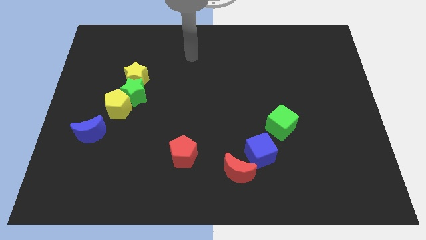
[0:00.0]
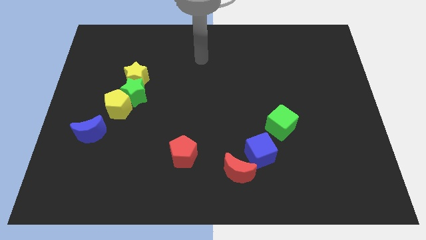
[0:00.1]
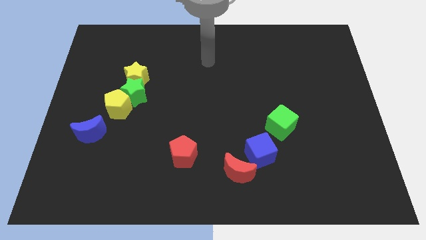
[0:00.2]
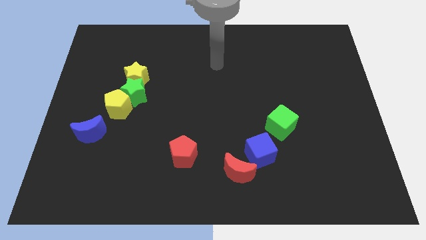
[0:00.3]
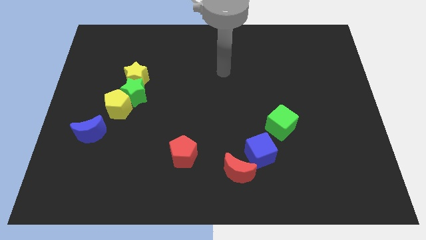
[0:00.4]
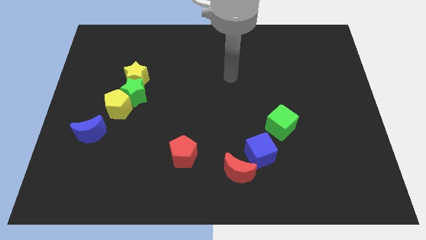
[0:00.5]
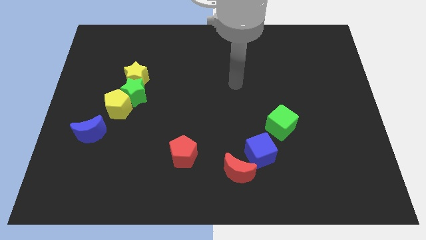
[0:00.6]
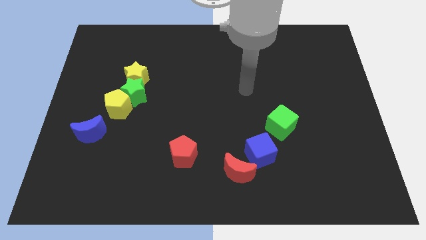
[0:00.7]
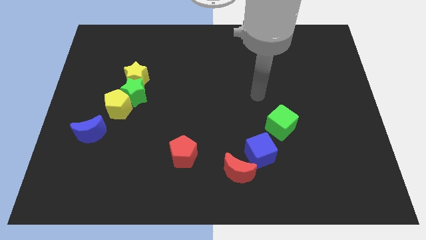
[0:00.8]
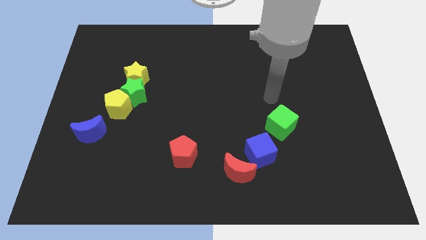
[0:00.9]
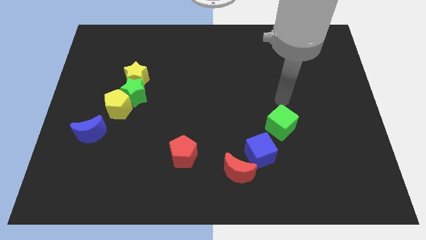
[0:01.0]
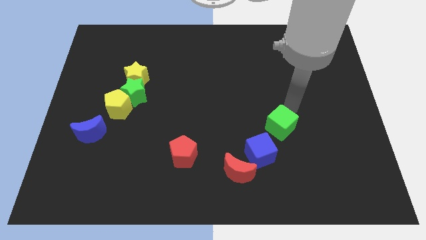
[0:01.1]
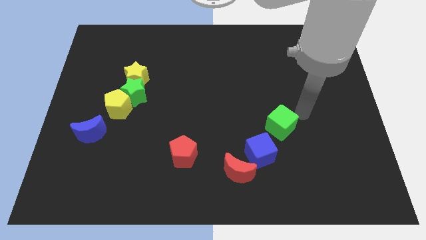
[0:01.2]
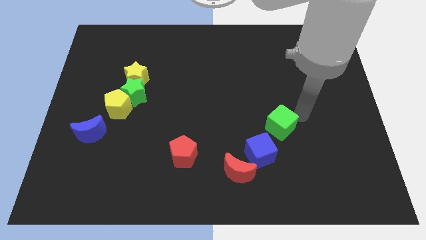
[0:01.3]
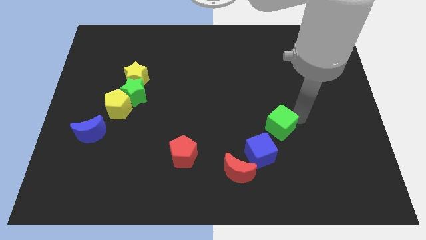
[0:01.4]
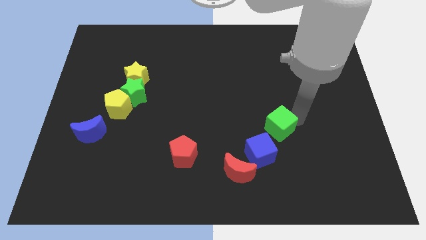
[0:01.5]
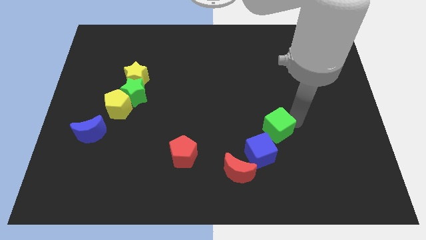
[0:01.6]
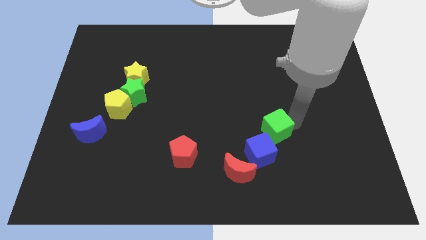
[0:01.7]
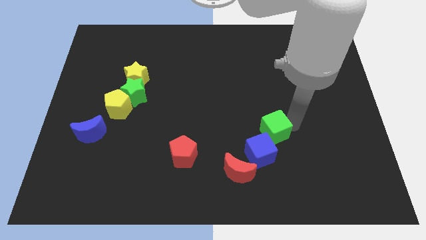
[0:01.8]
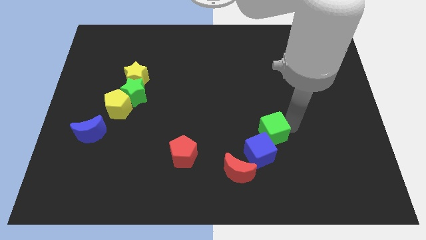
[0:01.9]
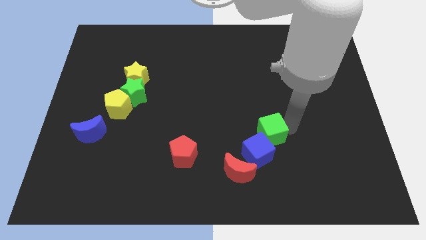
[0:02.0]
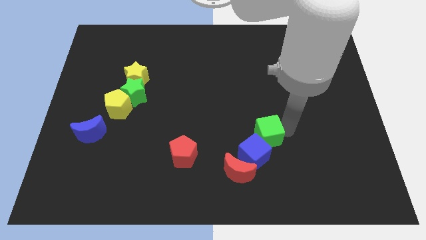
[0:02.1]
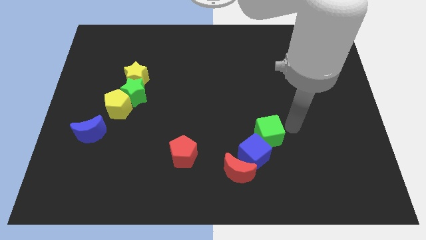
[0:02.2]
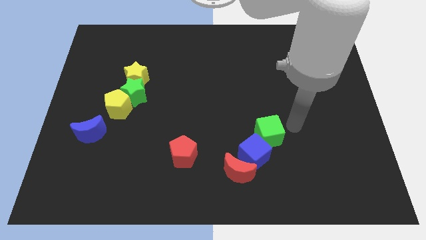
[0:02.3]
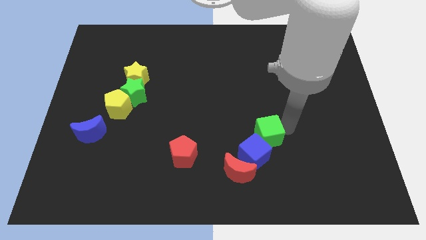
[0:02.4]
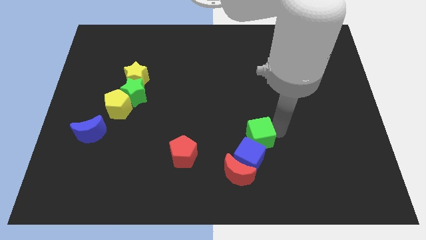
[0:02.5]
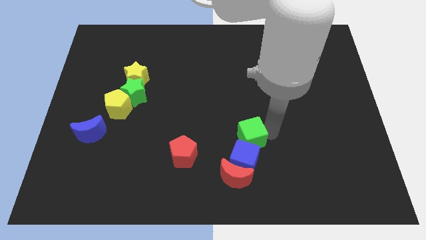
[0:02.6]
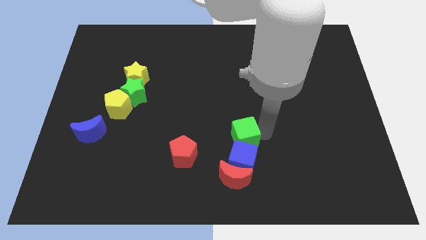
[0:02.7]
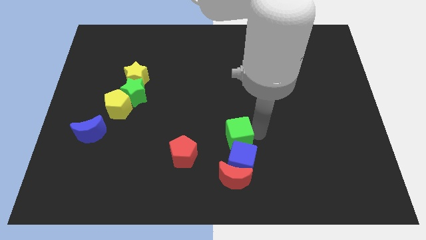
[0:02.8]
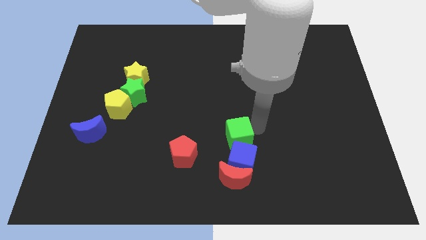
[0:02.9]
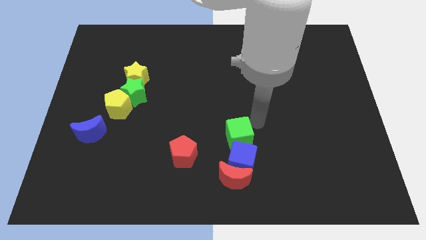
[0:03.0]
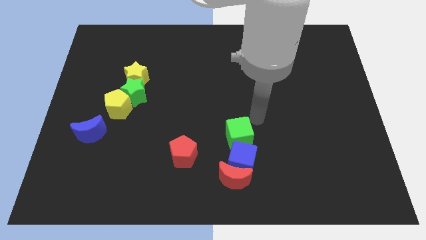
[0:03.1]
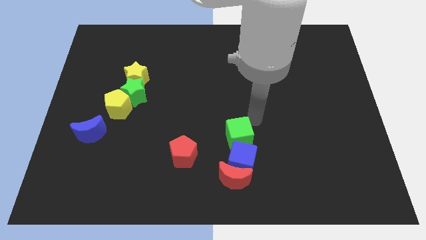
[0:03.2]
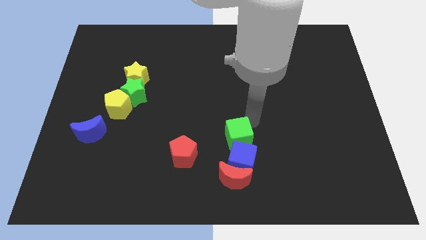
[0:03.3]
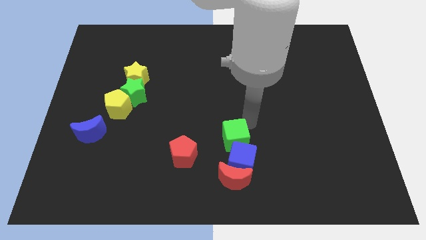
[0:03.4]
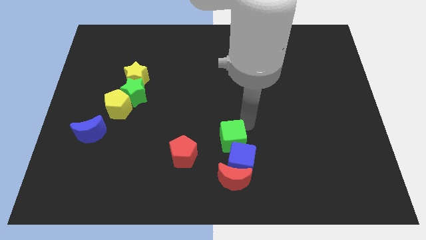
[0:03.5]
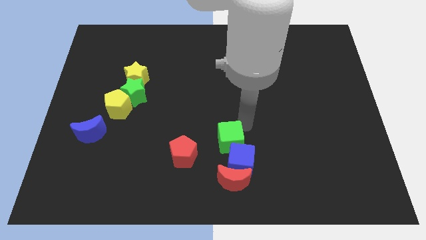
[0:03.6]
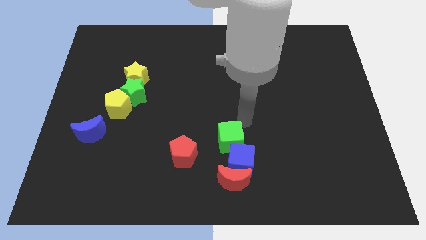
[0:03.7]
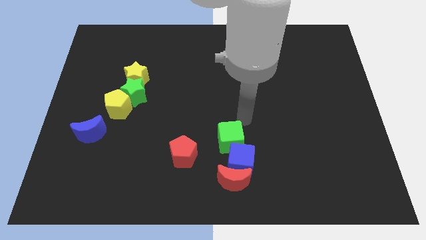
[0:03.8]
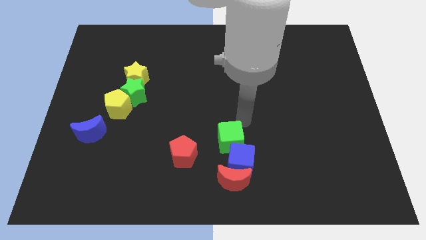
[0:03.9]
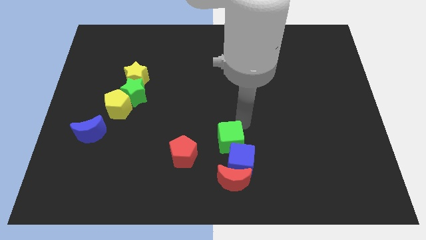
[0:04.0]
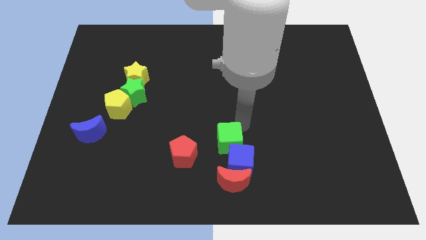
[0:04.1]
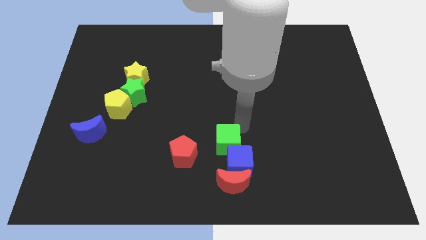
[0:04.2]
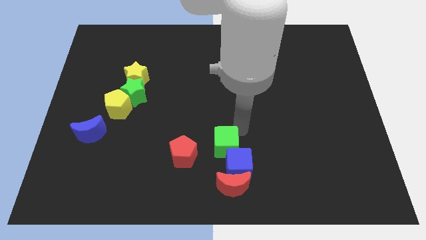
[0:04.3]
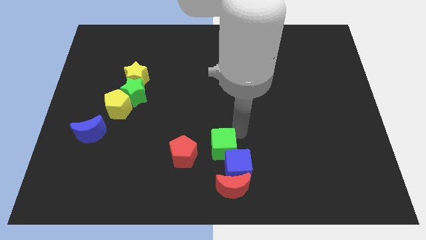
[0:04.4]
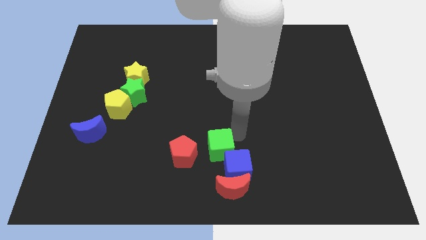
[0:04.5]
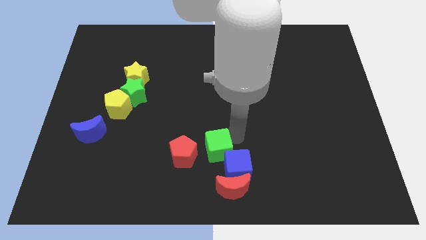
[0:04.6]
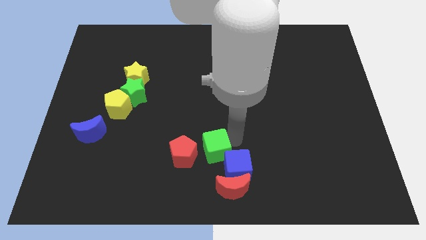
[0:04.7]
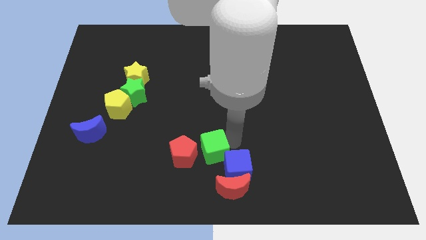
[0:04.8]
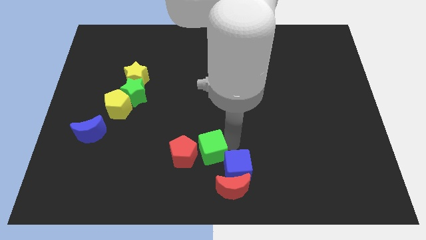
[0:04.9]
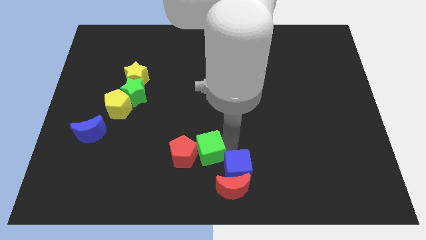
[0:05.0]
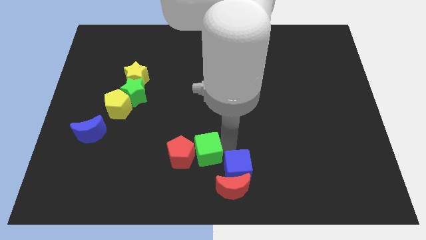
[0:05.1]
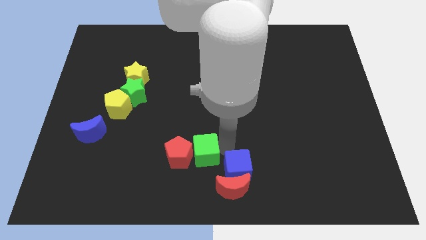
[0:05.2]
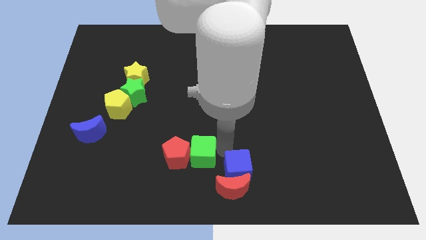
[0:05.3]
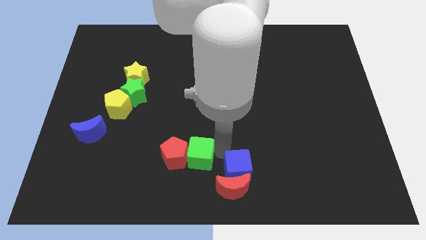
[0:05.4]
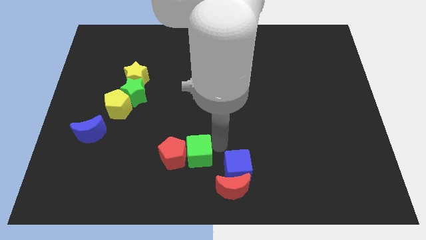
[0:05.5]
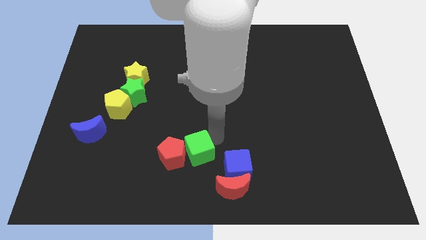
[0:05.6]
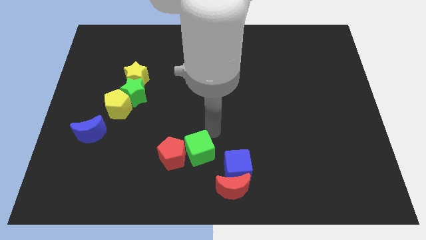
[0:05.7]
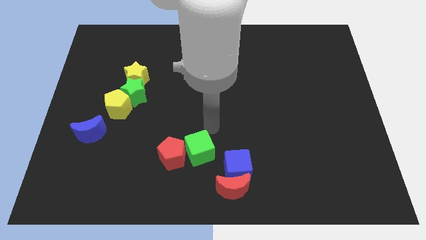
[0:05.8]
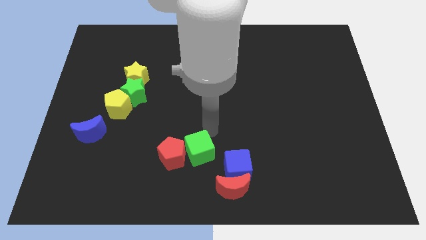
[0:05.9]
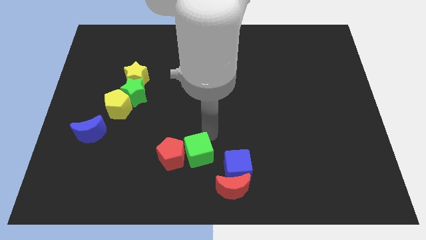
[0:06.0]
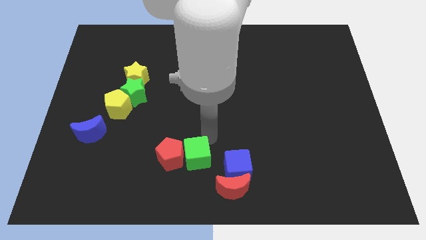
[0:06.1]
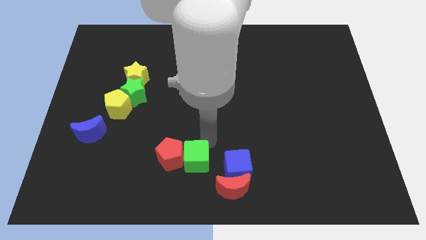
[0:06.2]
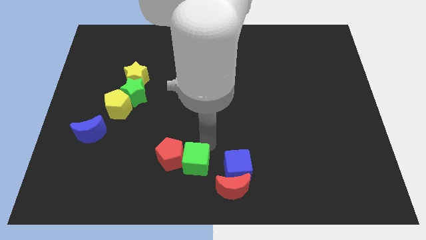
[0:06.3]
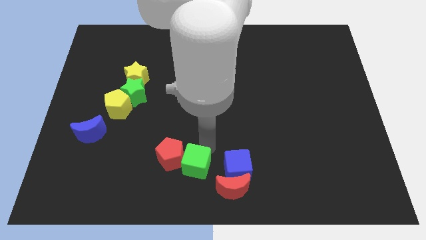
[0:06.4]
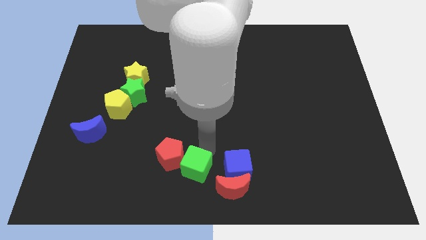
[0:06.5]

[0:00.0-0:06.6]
move the green cube to the left of the red moon
